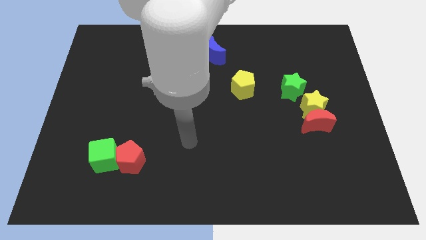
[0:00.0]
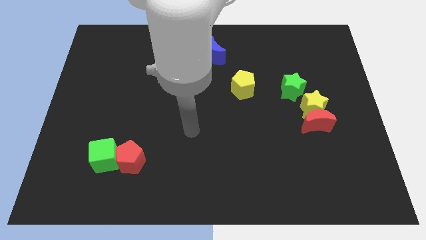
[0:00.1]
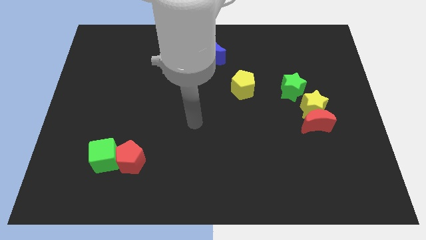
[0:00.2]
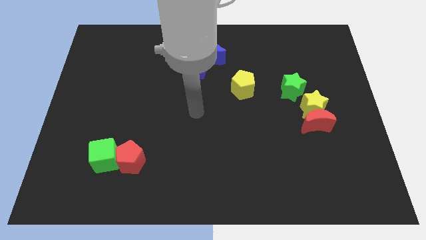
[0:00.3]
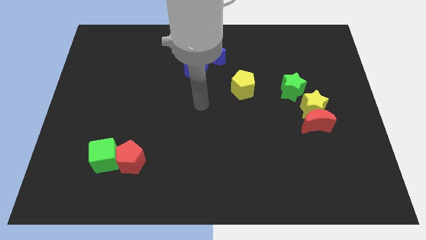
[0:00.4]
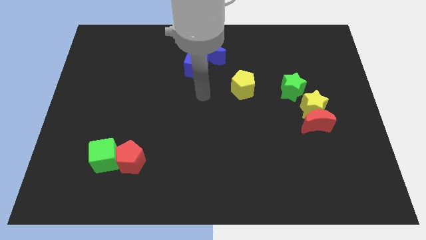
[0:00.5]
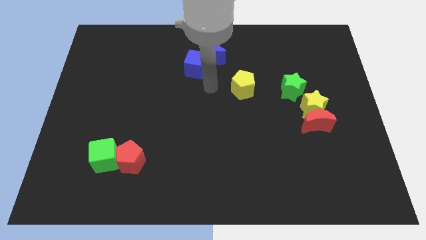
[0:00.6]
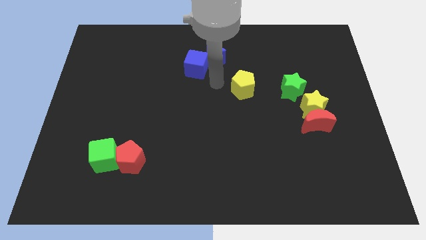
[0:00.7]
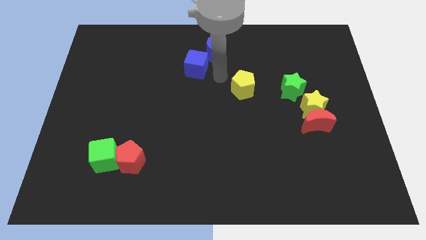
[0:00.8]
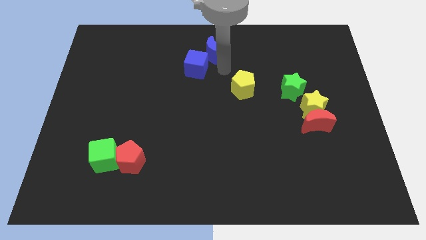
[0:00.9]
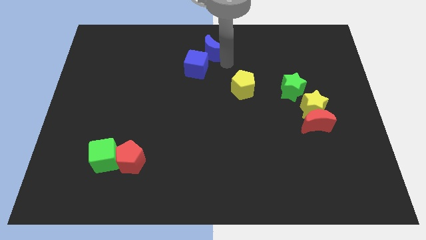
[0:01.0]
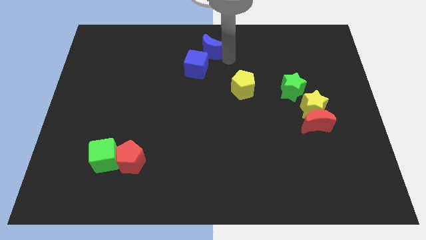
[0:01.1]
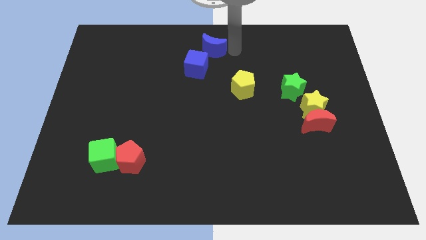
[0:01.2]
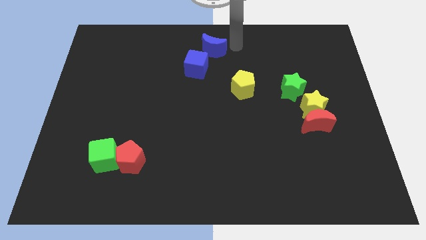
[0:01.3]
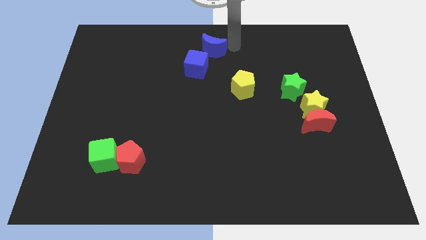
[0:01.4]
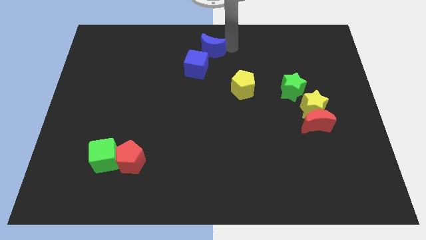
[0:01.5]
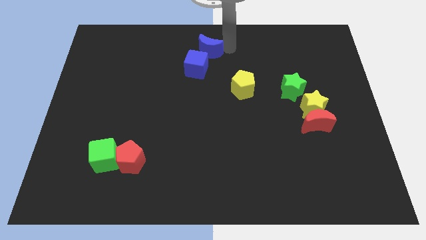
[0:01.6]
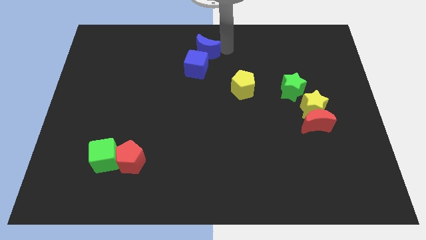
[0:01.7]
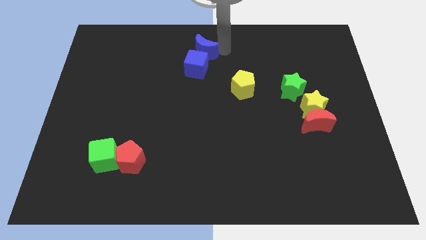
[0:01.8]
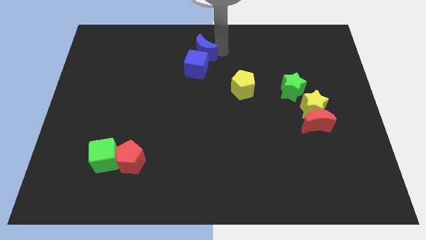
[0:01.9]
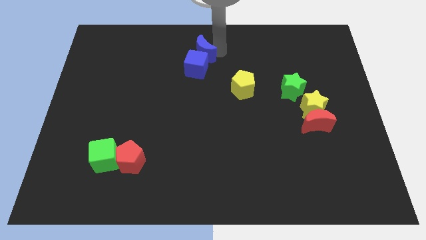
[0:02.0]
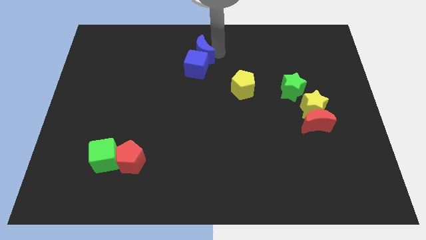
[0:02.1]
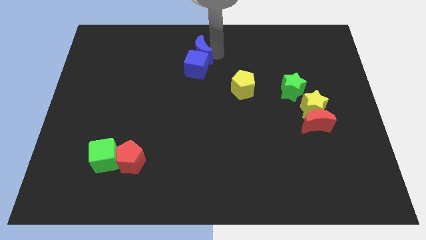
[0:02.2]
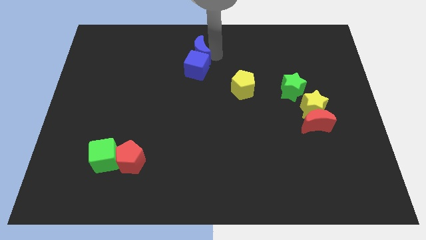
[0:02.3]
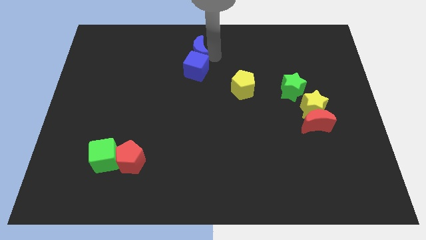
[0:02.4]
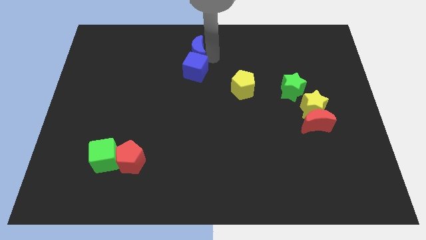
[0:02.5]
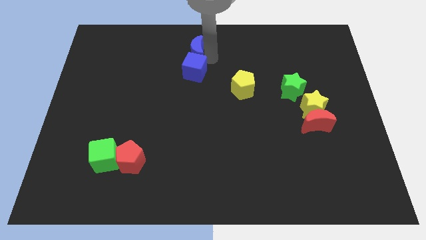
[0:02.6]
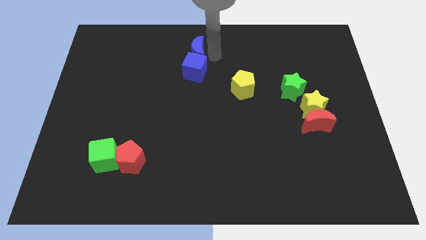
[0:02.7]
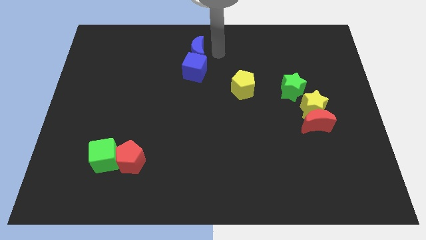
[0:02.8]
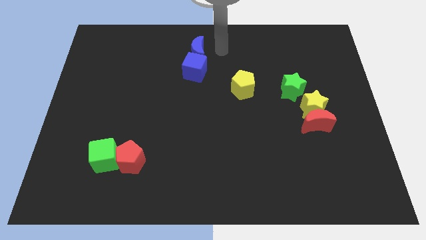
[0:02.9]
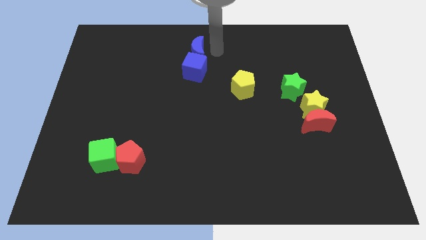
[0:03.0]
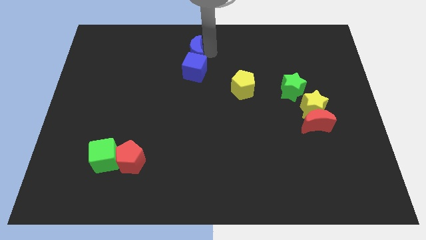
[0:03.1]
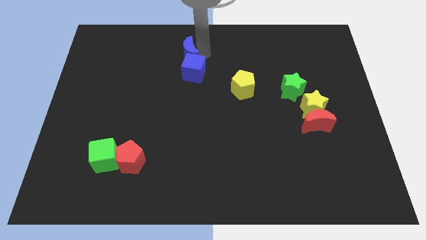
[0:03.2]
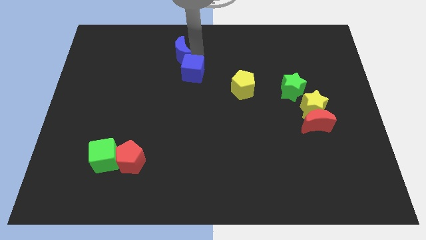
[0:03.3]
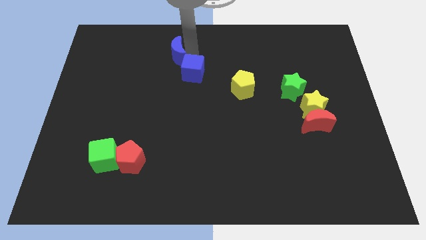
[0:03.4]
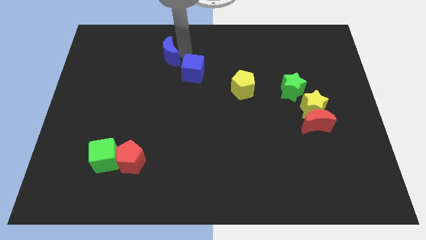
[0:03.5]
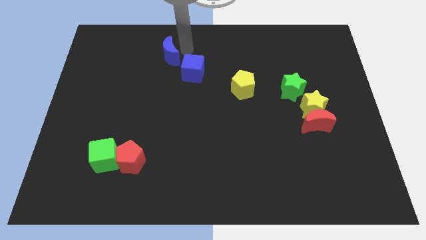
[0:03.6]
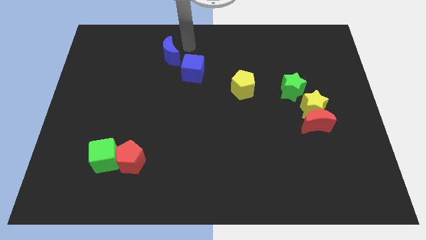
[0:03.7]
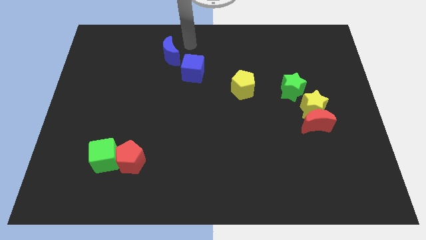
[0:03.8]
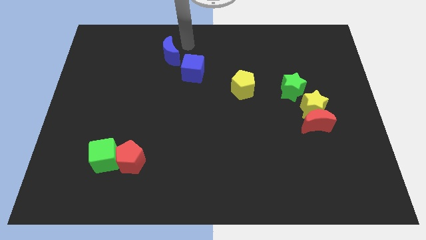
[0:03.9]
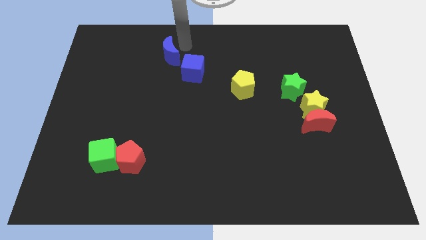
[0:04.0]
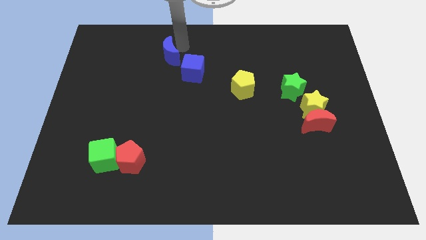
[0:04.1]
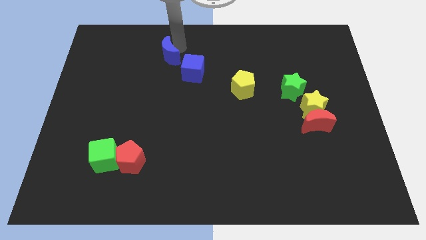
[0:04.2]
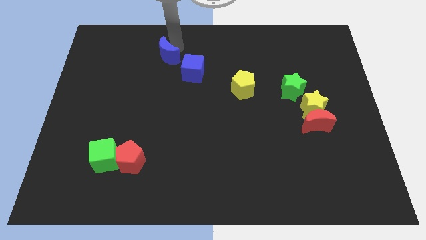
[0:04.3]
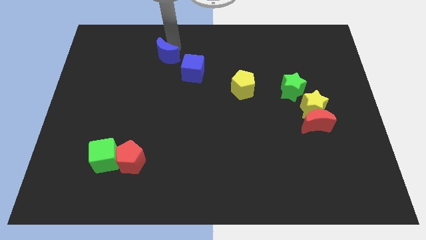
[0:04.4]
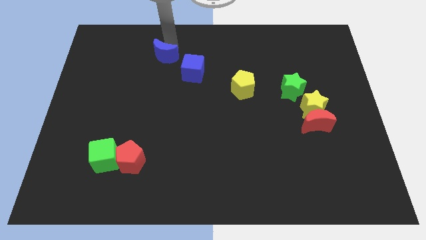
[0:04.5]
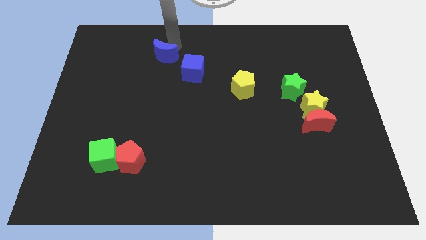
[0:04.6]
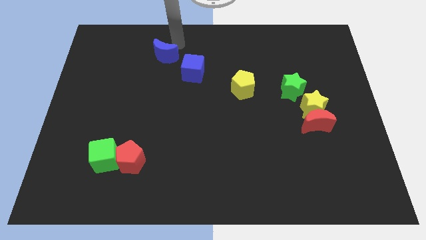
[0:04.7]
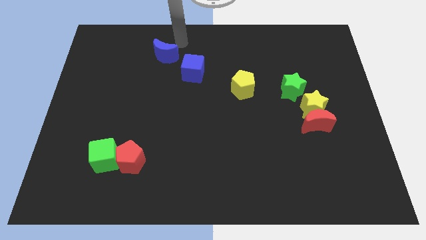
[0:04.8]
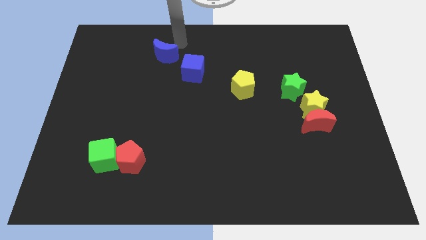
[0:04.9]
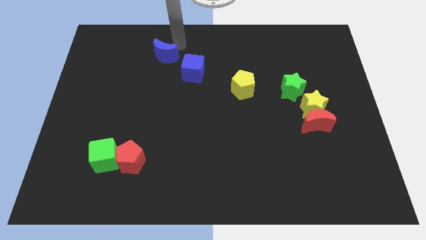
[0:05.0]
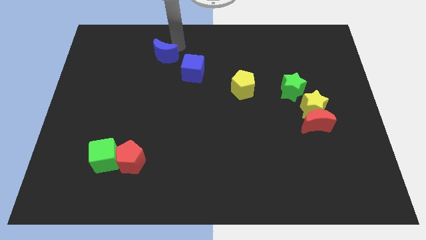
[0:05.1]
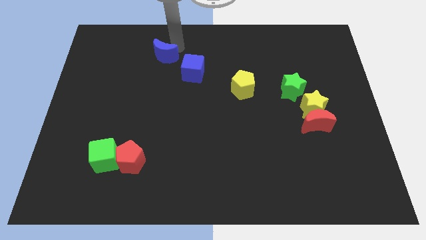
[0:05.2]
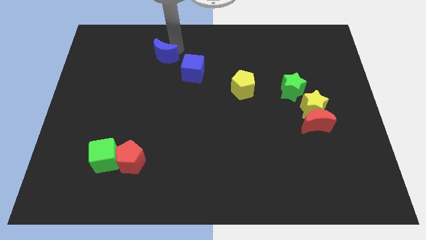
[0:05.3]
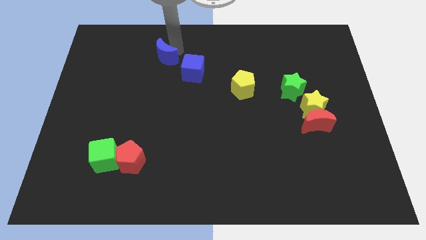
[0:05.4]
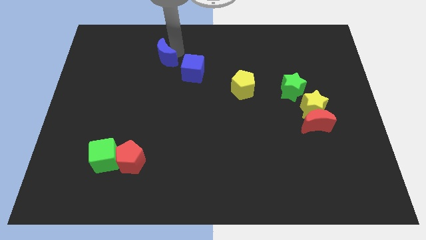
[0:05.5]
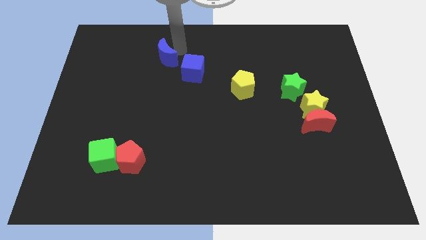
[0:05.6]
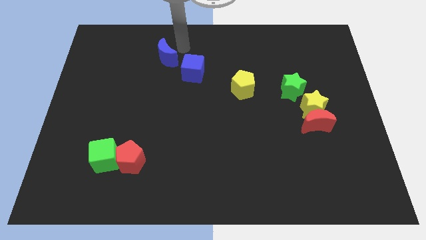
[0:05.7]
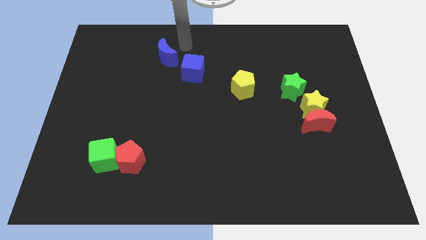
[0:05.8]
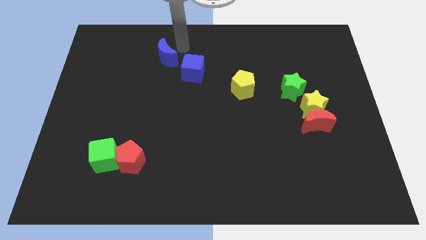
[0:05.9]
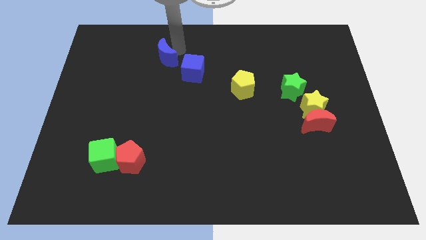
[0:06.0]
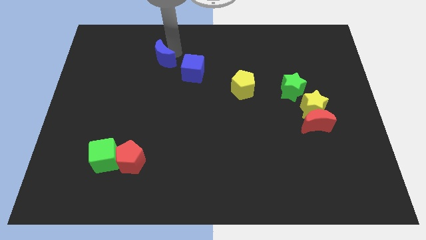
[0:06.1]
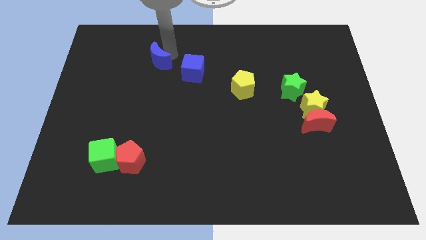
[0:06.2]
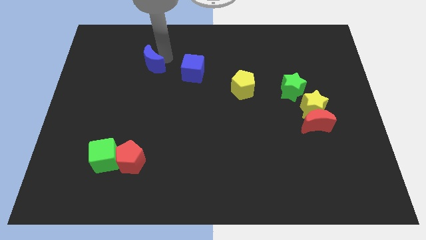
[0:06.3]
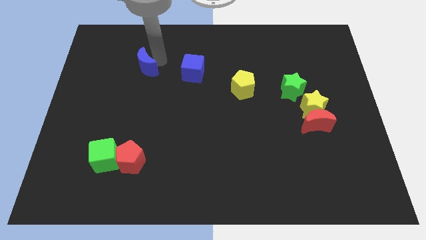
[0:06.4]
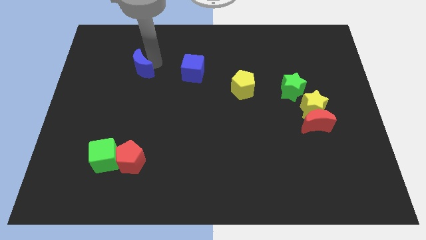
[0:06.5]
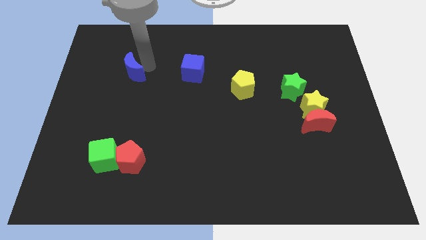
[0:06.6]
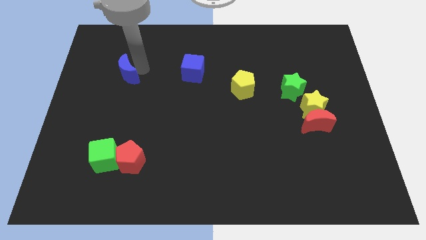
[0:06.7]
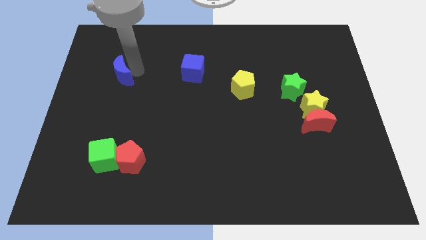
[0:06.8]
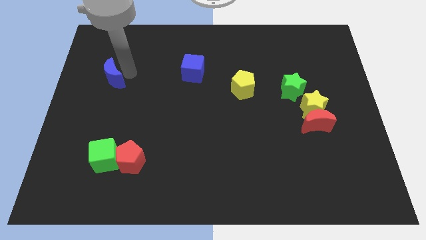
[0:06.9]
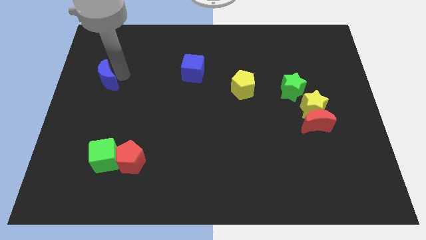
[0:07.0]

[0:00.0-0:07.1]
slide the blue moon to the left side
